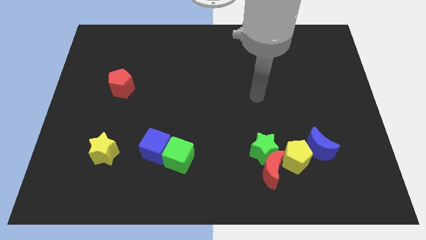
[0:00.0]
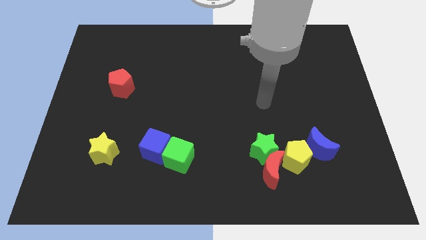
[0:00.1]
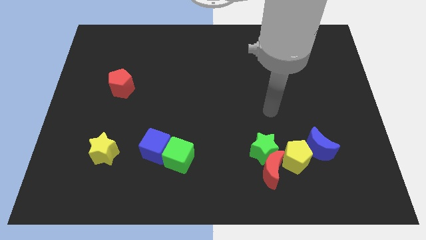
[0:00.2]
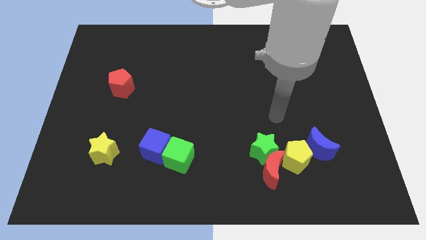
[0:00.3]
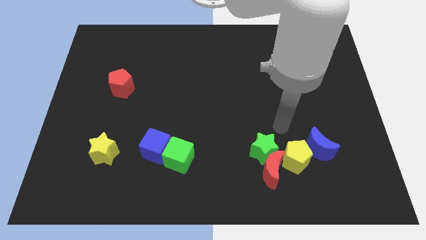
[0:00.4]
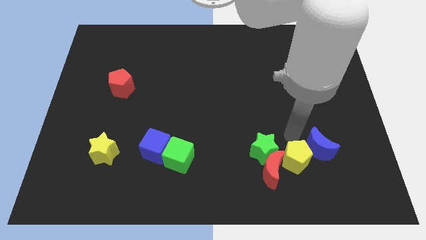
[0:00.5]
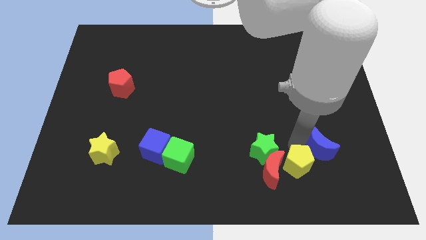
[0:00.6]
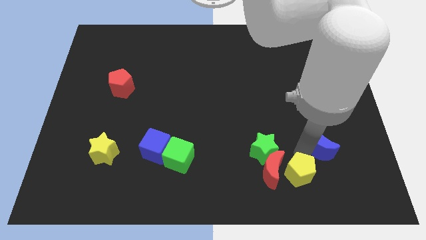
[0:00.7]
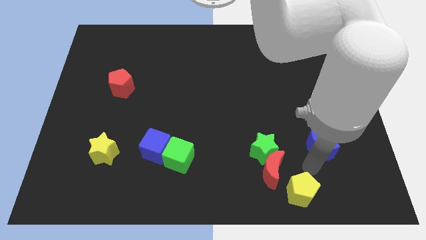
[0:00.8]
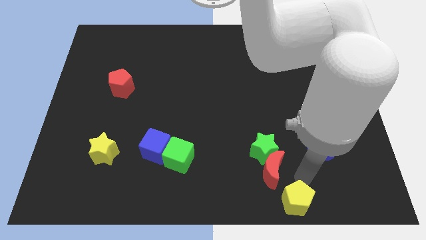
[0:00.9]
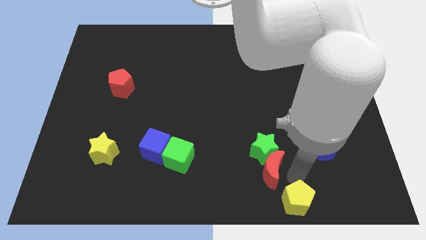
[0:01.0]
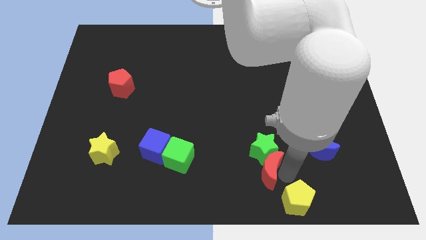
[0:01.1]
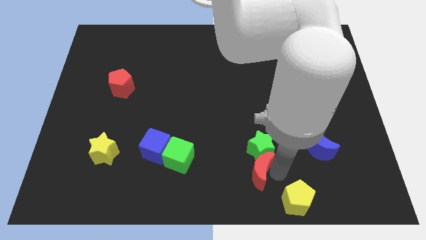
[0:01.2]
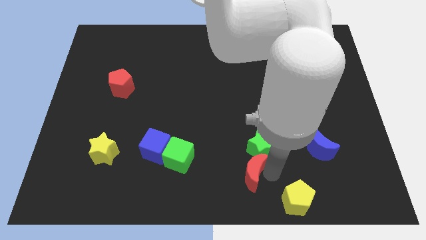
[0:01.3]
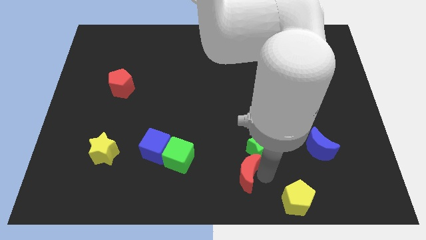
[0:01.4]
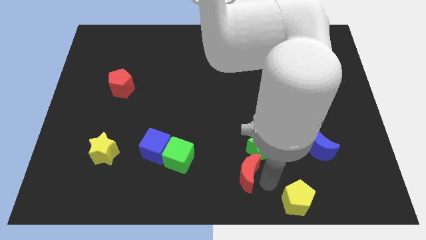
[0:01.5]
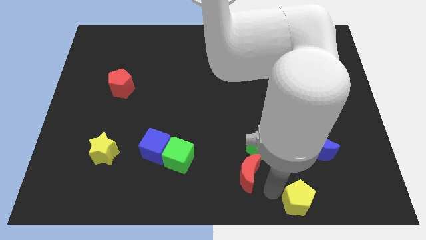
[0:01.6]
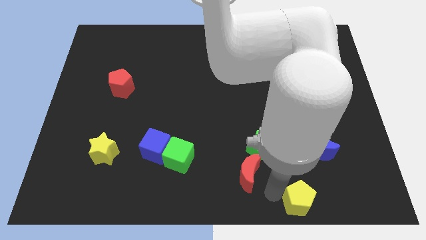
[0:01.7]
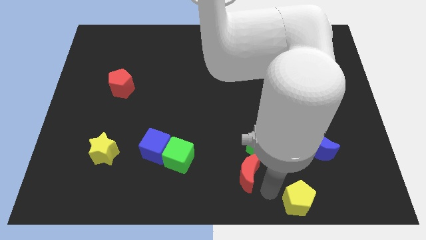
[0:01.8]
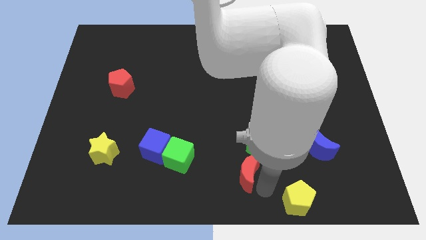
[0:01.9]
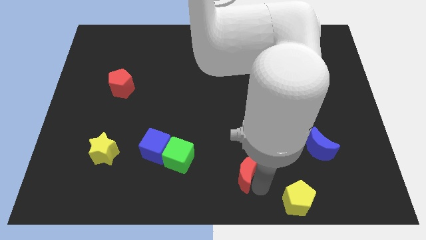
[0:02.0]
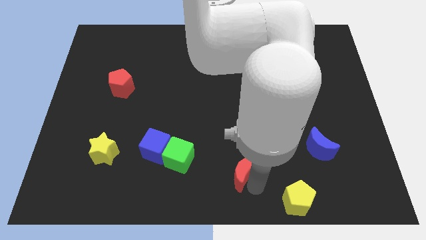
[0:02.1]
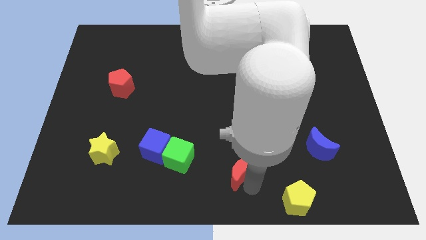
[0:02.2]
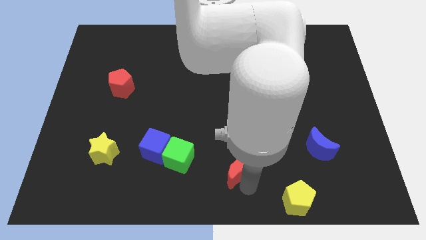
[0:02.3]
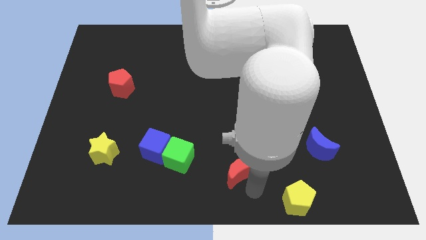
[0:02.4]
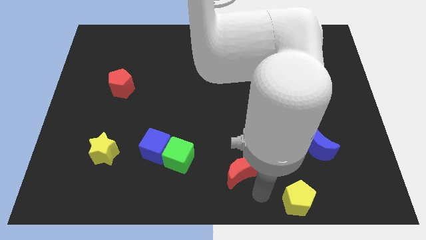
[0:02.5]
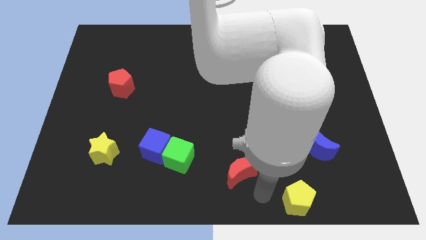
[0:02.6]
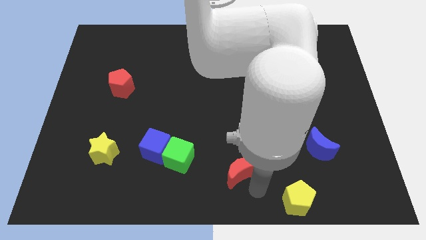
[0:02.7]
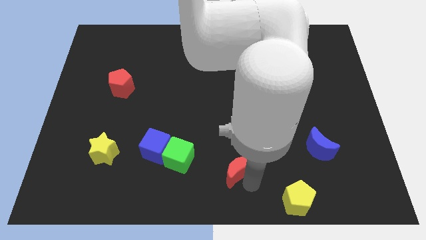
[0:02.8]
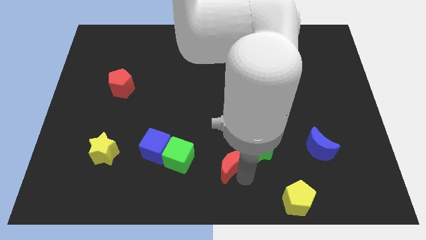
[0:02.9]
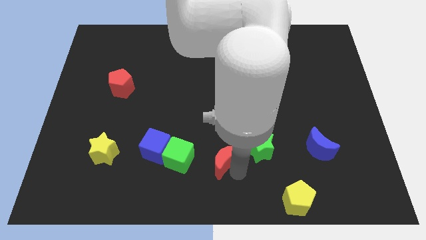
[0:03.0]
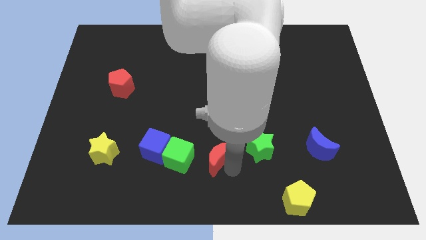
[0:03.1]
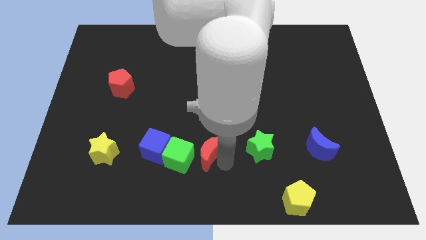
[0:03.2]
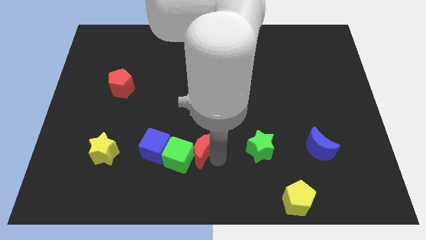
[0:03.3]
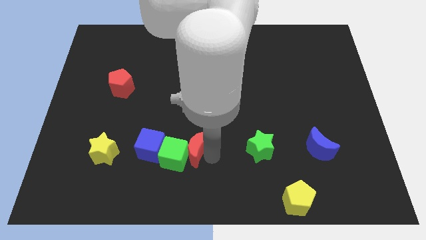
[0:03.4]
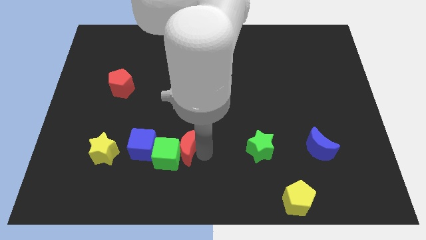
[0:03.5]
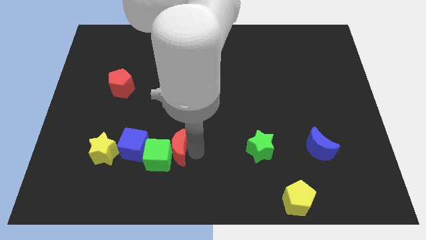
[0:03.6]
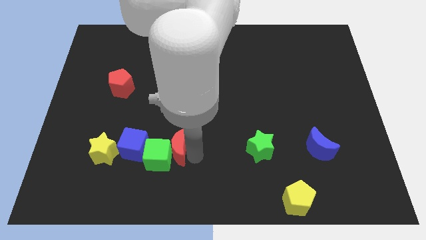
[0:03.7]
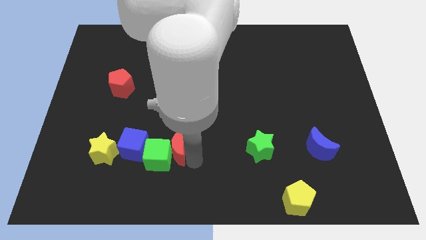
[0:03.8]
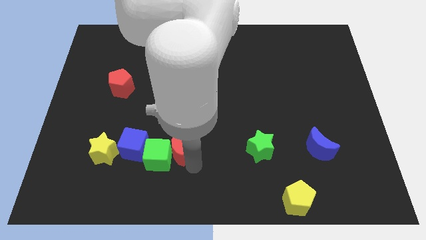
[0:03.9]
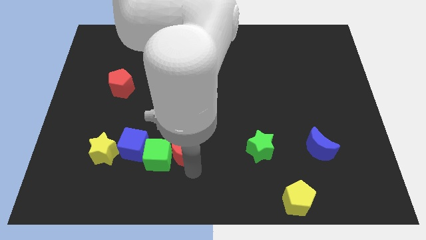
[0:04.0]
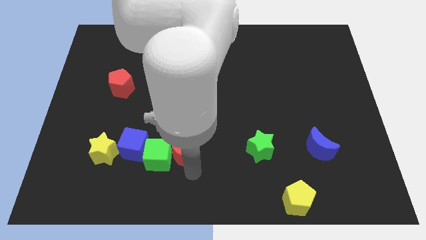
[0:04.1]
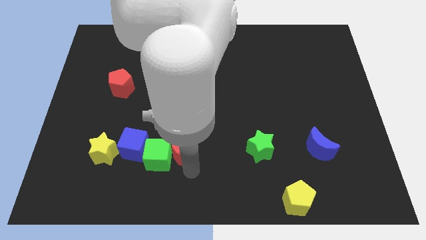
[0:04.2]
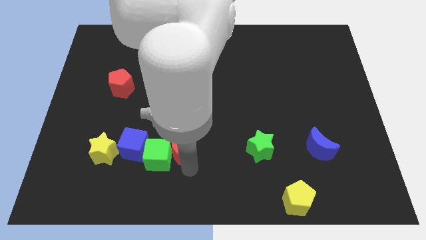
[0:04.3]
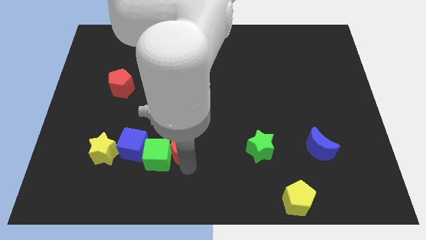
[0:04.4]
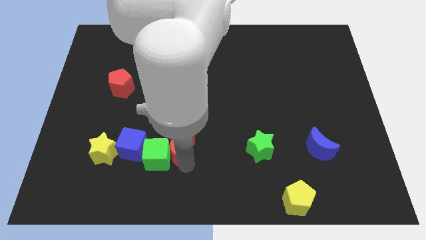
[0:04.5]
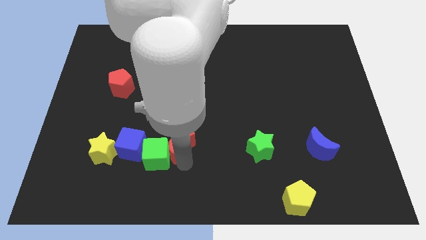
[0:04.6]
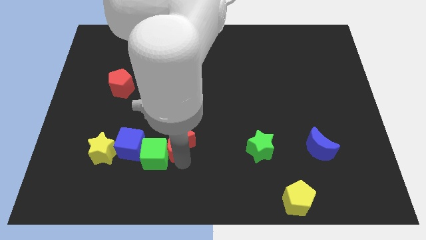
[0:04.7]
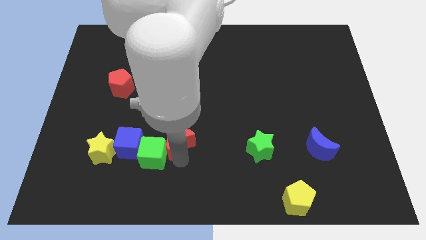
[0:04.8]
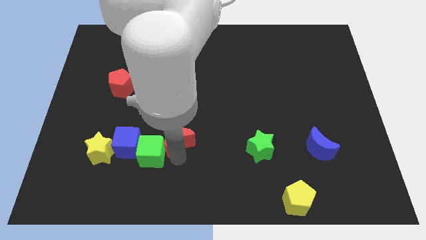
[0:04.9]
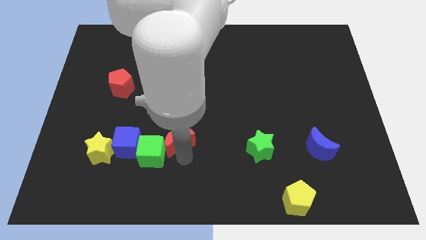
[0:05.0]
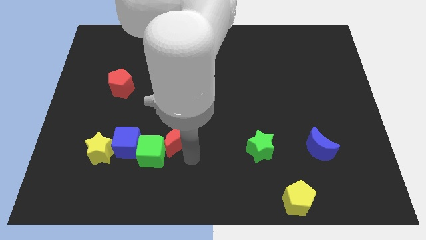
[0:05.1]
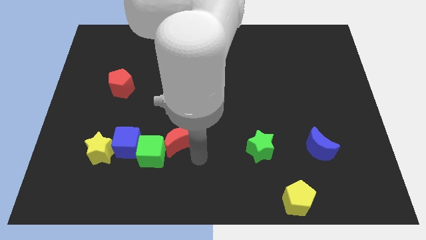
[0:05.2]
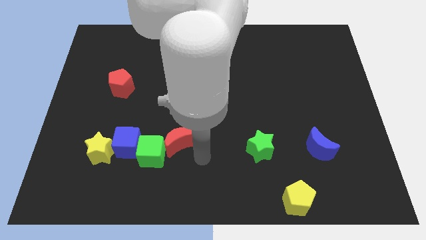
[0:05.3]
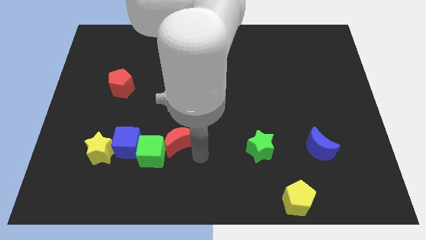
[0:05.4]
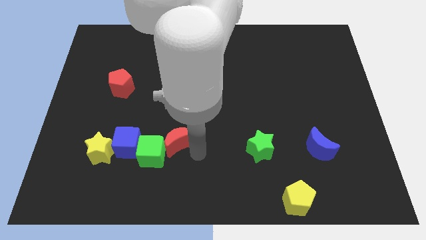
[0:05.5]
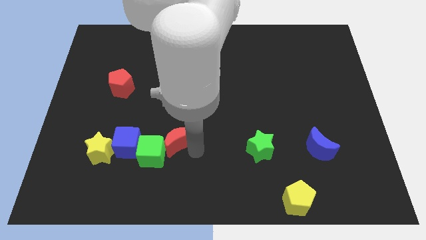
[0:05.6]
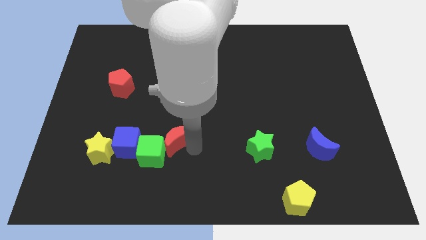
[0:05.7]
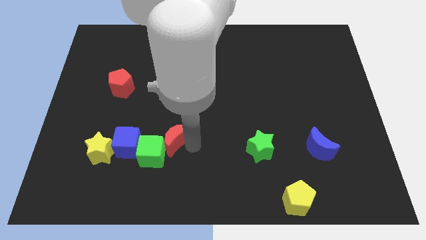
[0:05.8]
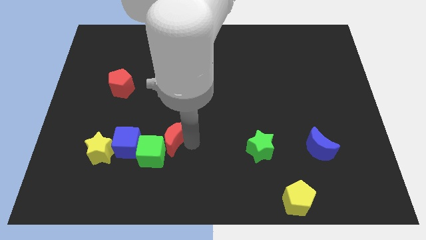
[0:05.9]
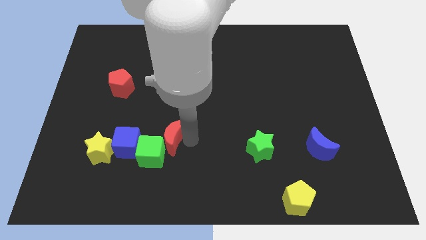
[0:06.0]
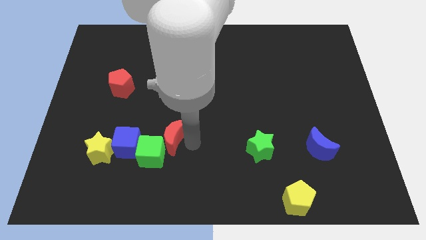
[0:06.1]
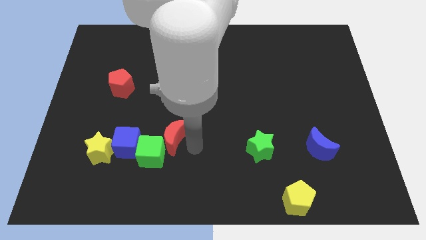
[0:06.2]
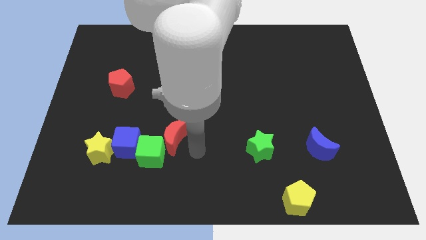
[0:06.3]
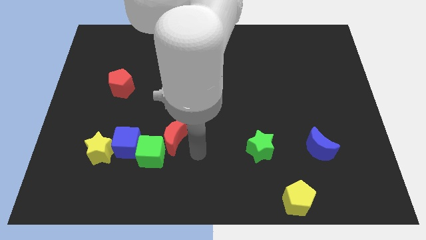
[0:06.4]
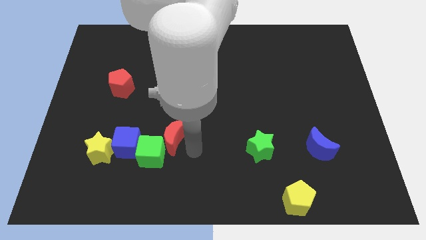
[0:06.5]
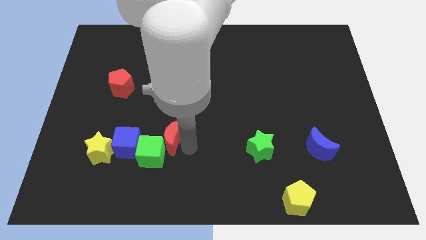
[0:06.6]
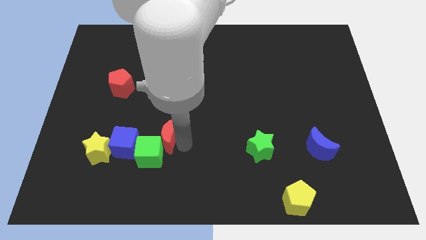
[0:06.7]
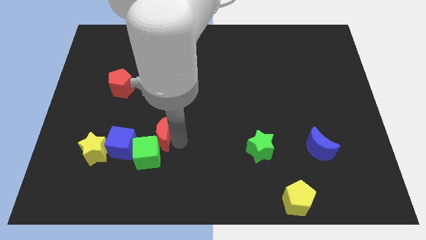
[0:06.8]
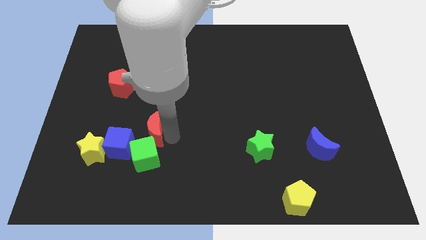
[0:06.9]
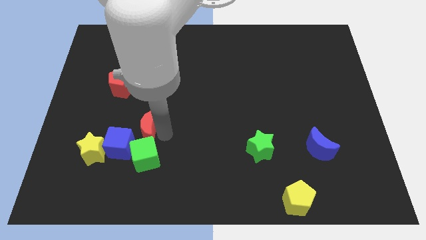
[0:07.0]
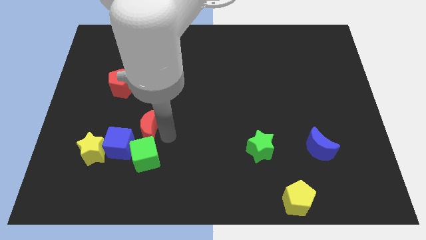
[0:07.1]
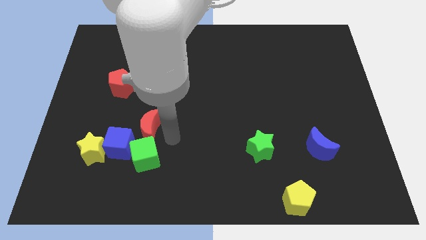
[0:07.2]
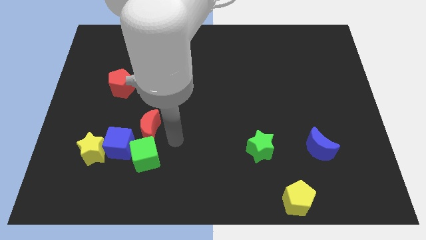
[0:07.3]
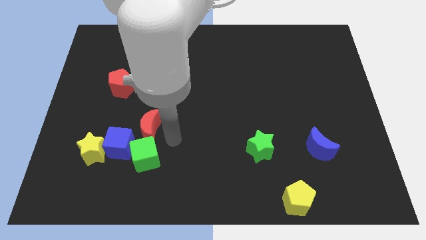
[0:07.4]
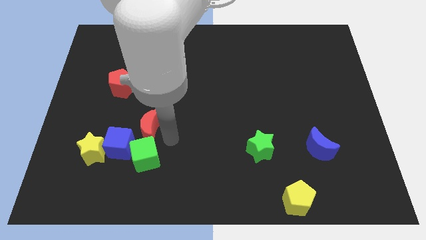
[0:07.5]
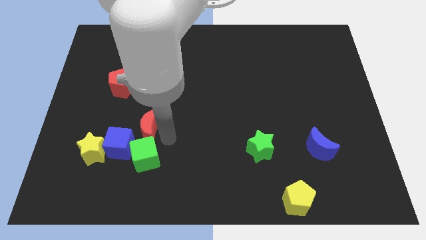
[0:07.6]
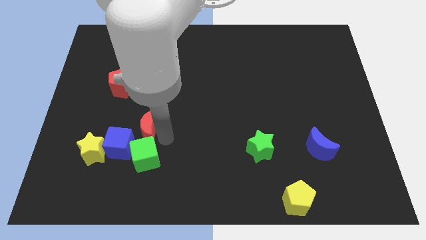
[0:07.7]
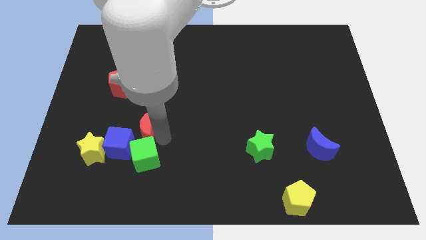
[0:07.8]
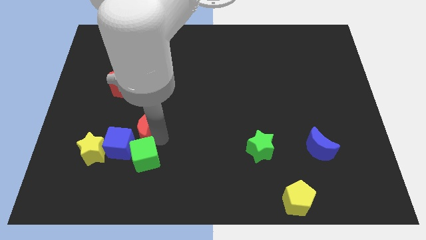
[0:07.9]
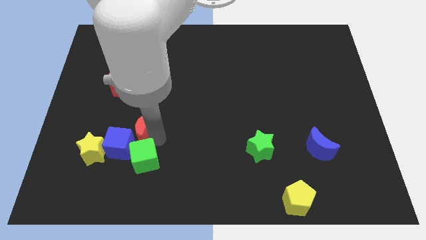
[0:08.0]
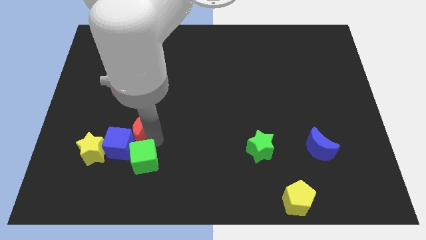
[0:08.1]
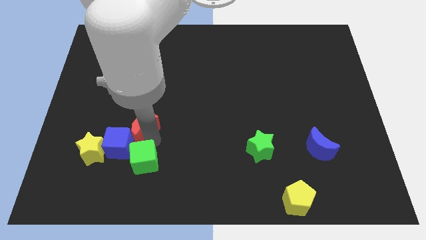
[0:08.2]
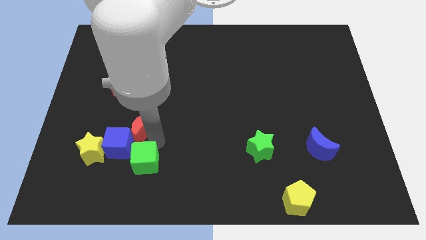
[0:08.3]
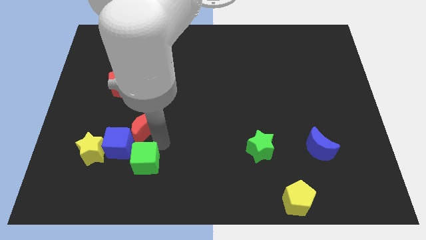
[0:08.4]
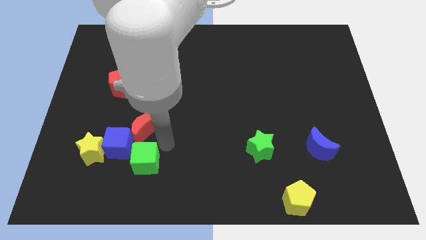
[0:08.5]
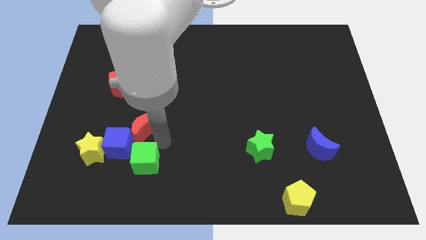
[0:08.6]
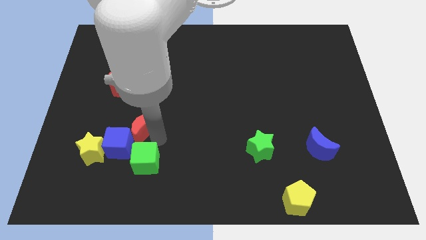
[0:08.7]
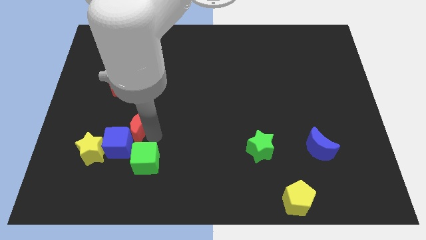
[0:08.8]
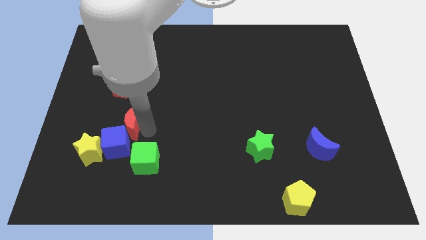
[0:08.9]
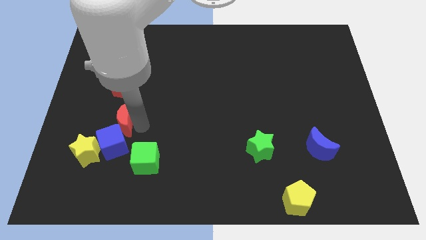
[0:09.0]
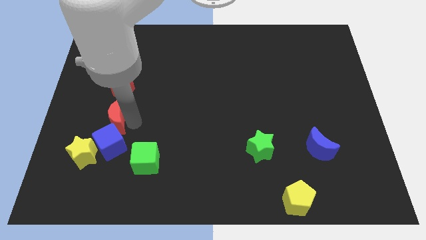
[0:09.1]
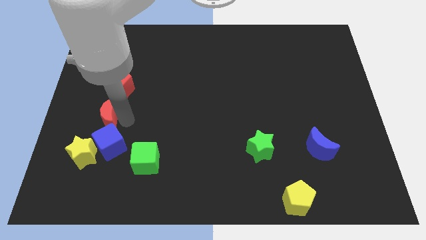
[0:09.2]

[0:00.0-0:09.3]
slide the red moon to the top of the yellow star

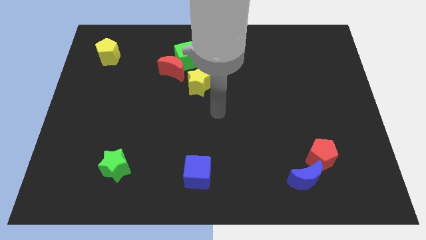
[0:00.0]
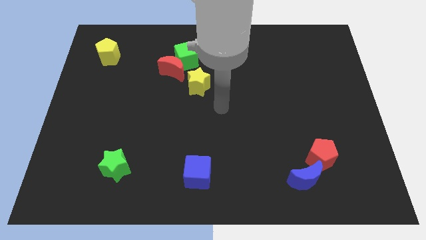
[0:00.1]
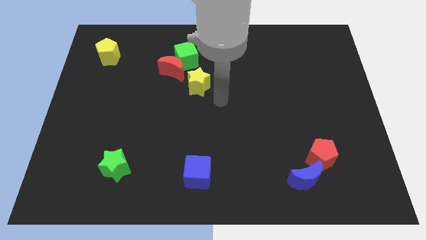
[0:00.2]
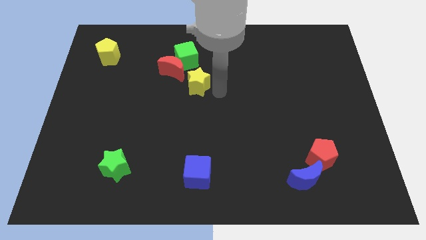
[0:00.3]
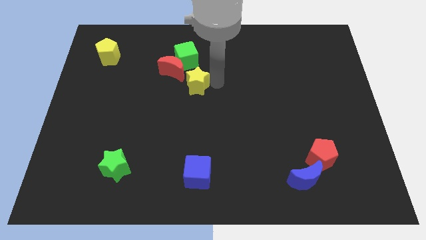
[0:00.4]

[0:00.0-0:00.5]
put the red moon to the left side of the yellow star
